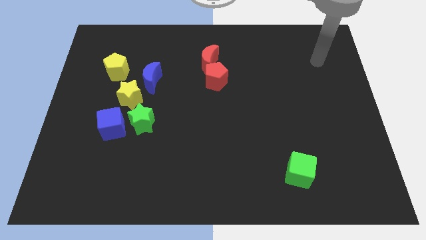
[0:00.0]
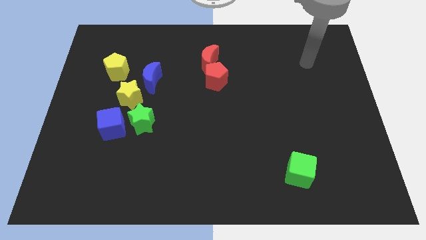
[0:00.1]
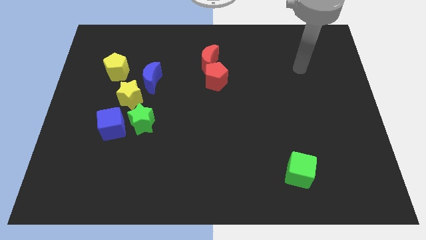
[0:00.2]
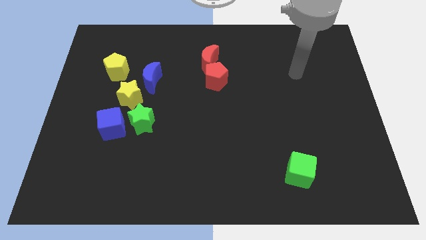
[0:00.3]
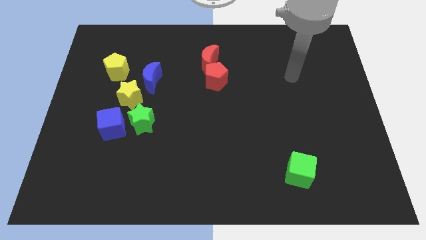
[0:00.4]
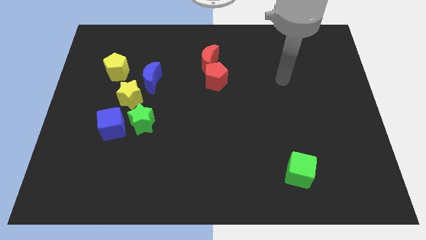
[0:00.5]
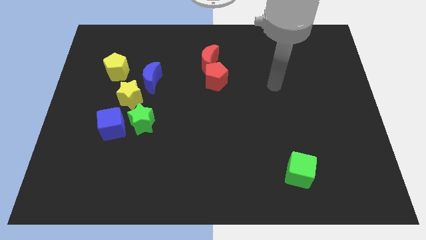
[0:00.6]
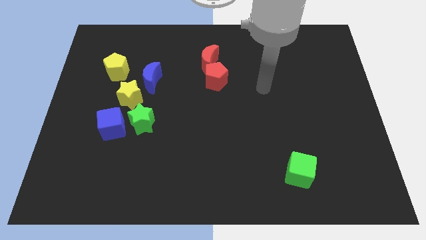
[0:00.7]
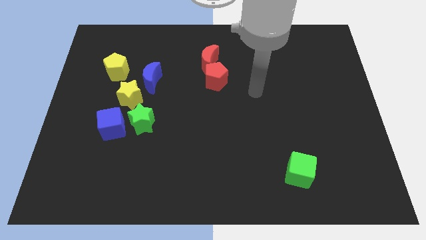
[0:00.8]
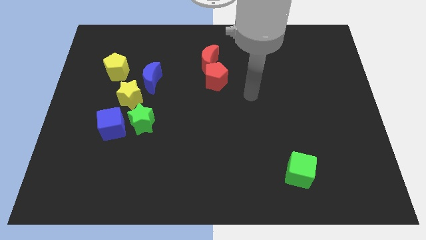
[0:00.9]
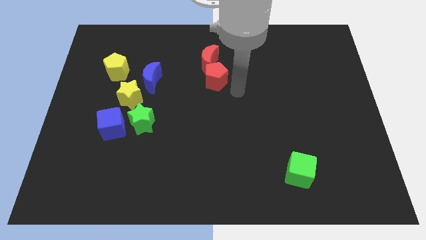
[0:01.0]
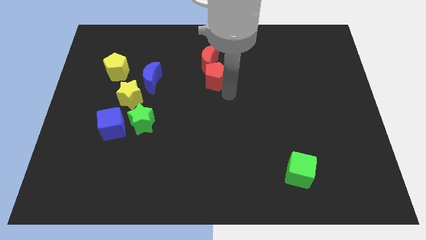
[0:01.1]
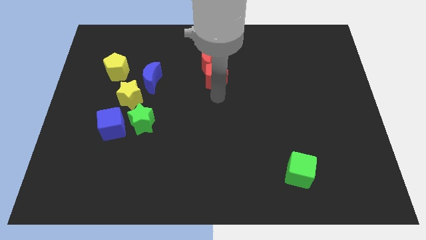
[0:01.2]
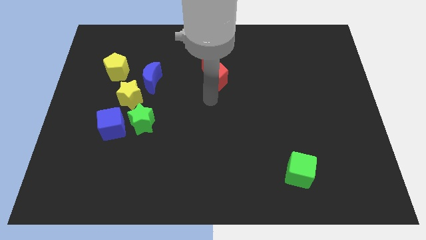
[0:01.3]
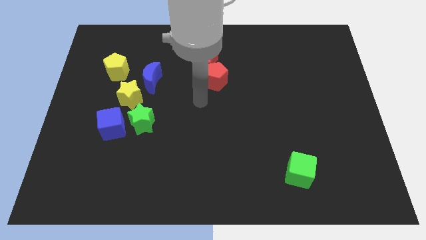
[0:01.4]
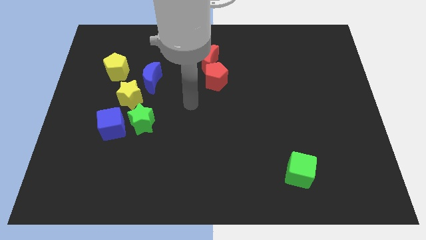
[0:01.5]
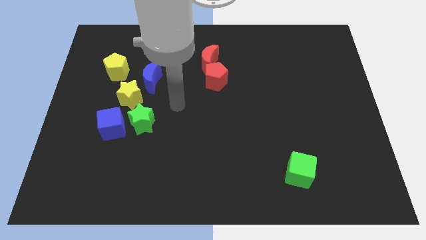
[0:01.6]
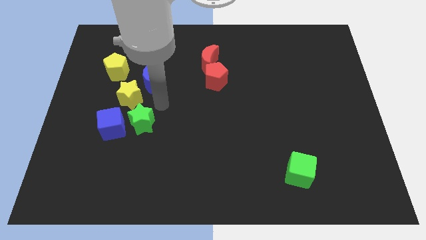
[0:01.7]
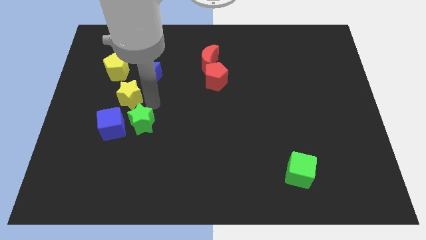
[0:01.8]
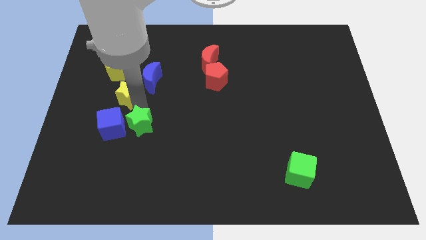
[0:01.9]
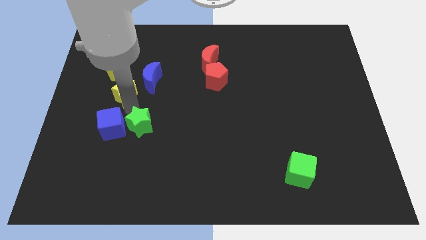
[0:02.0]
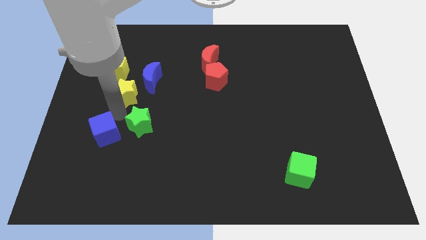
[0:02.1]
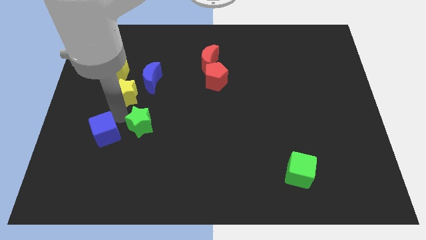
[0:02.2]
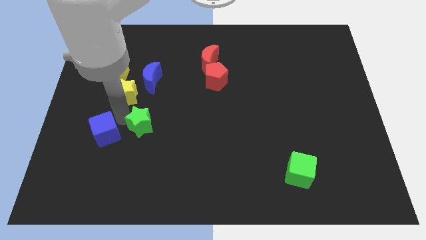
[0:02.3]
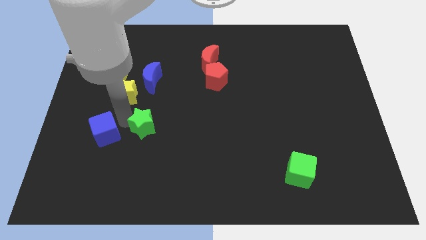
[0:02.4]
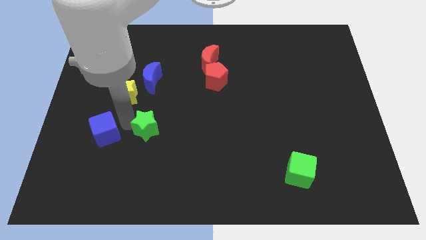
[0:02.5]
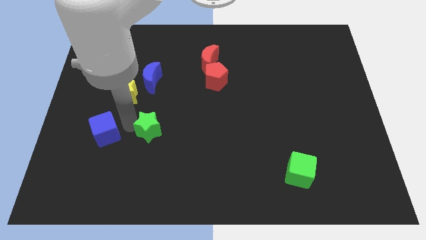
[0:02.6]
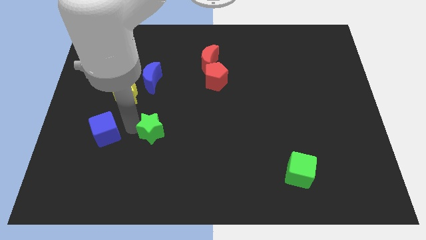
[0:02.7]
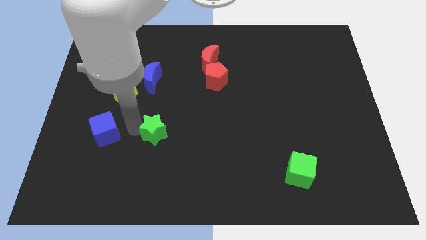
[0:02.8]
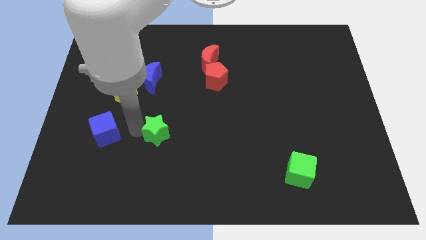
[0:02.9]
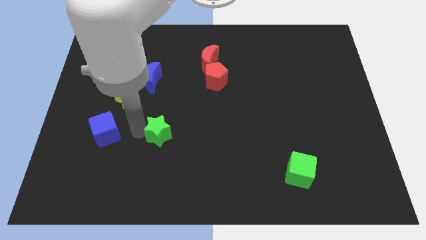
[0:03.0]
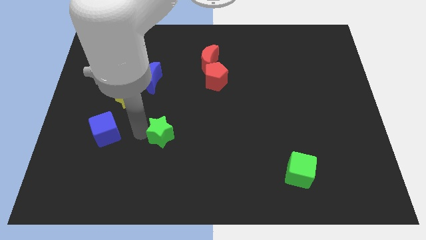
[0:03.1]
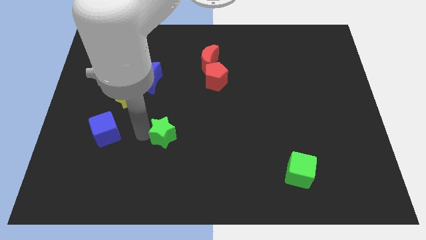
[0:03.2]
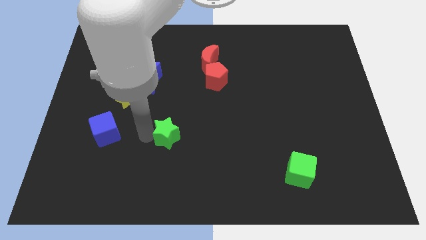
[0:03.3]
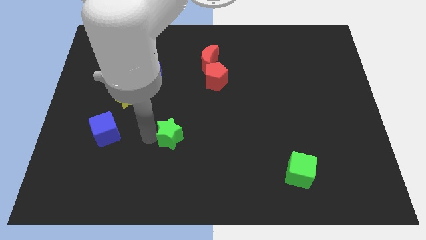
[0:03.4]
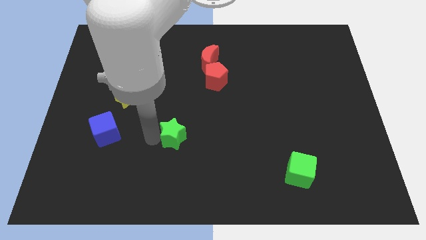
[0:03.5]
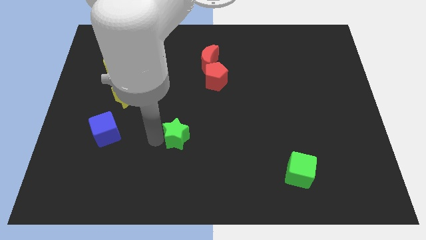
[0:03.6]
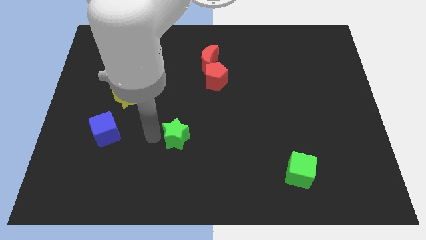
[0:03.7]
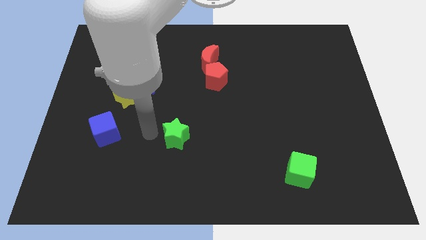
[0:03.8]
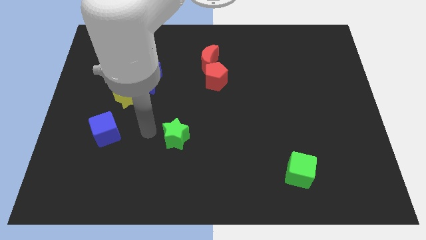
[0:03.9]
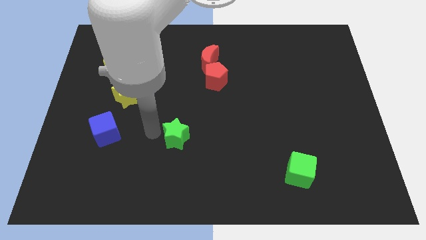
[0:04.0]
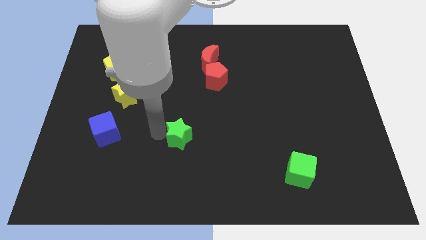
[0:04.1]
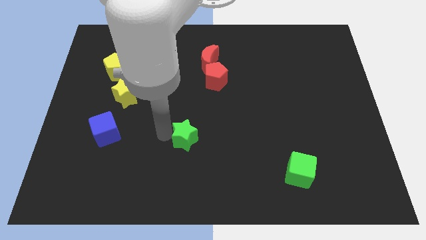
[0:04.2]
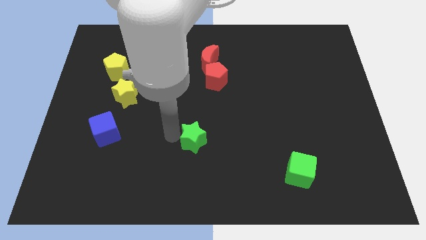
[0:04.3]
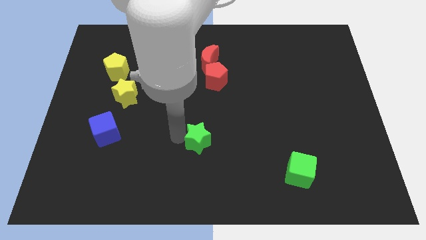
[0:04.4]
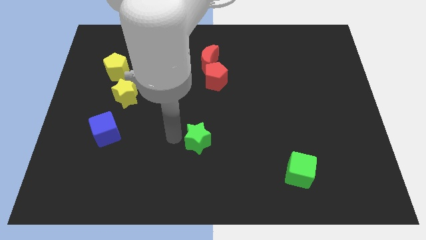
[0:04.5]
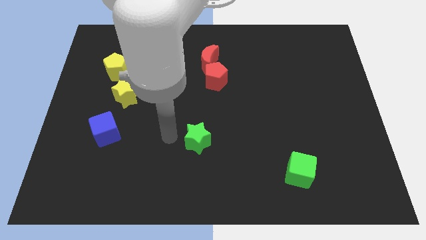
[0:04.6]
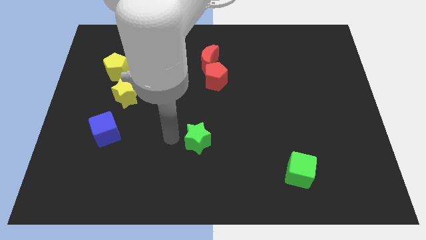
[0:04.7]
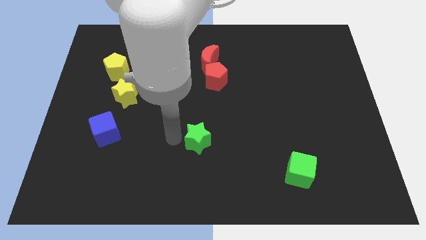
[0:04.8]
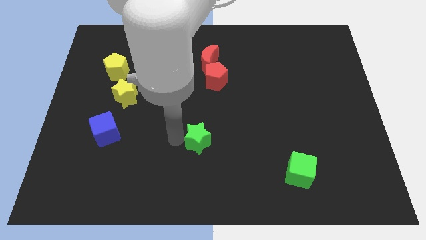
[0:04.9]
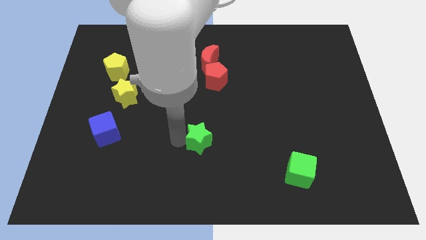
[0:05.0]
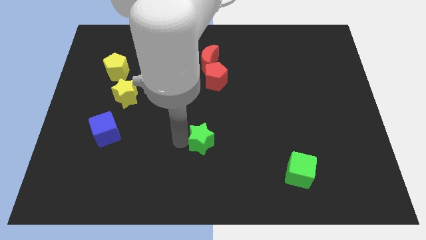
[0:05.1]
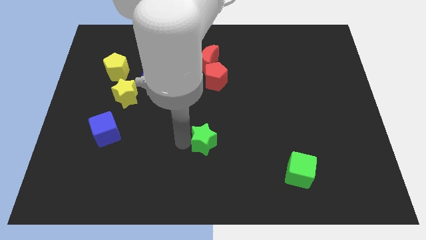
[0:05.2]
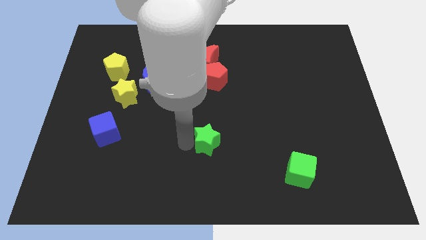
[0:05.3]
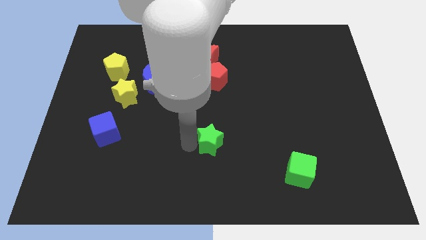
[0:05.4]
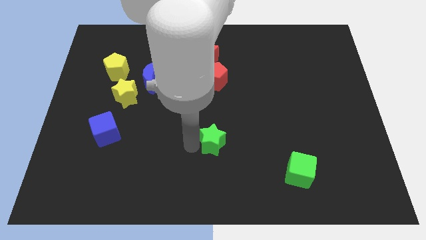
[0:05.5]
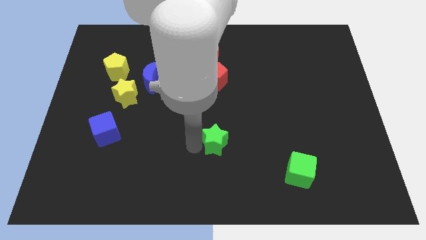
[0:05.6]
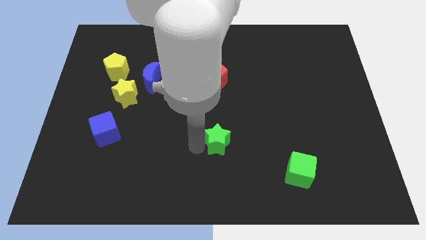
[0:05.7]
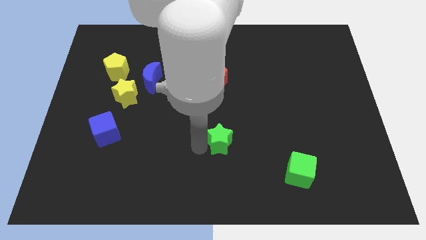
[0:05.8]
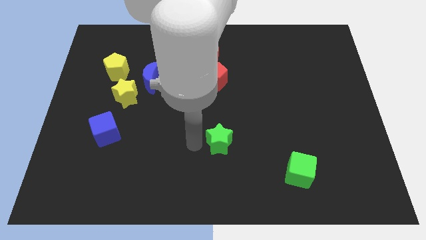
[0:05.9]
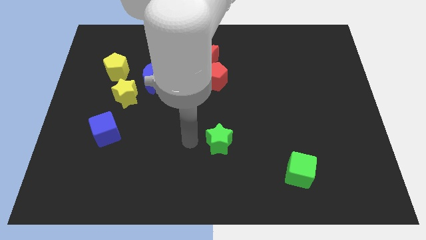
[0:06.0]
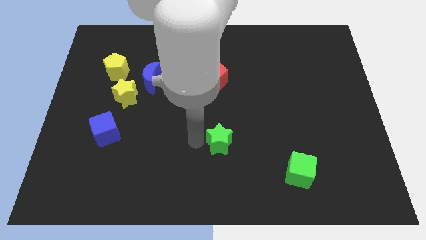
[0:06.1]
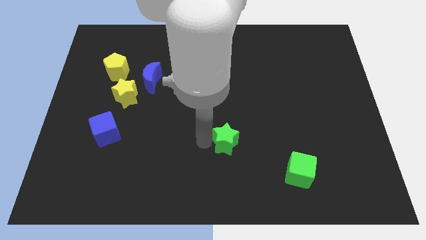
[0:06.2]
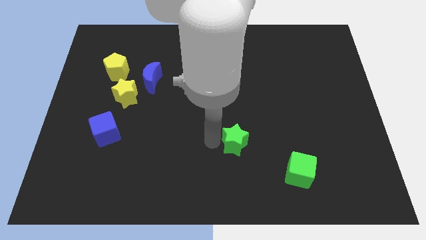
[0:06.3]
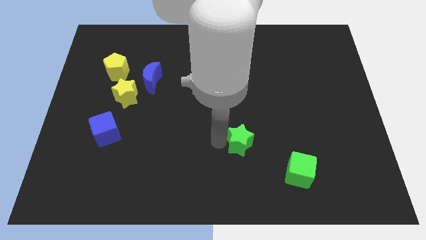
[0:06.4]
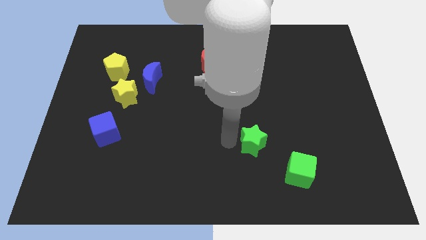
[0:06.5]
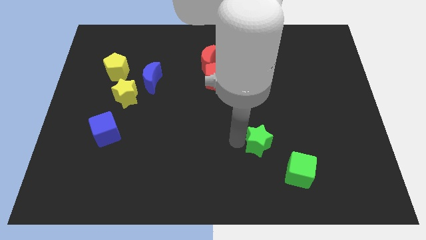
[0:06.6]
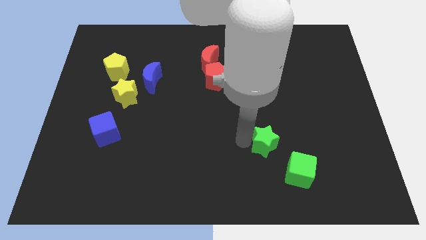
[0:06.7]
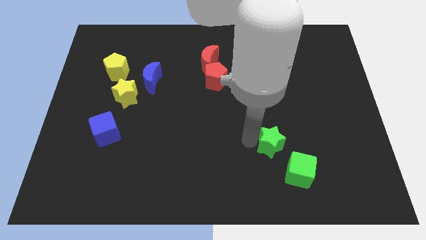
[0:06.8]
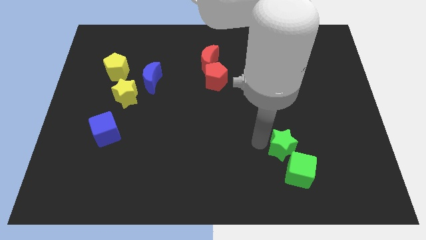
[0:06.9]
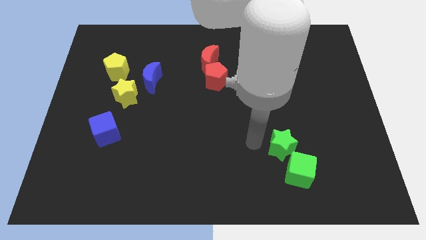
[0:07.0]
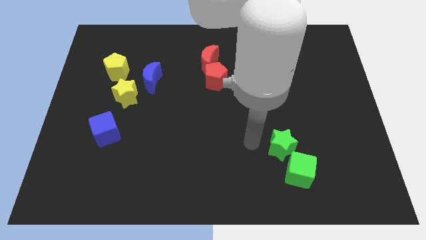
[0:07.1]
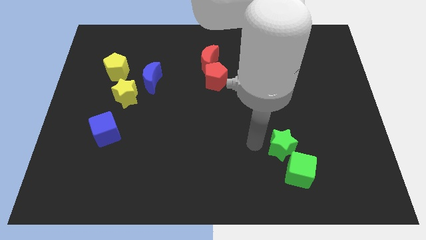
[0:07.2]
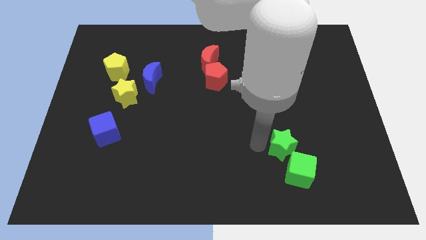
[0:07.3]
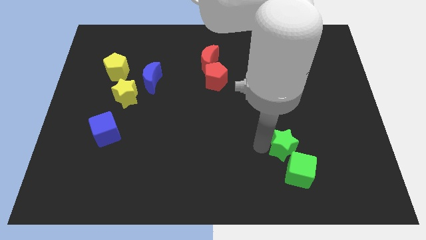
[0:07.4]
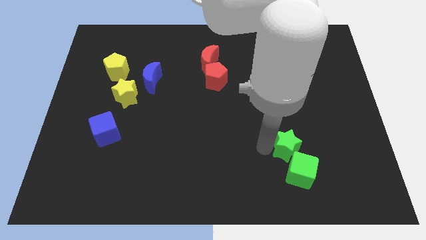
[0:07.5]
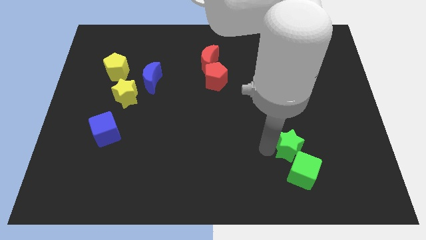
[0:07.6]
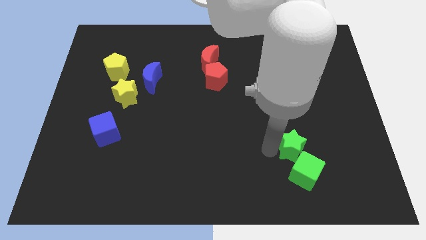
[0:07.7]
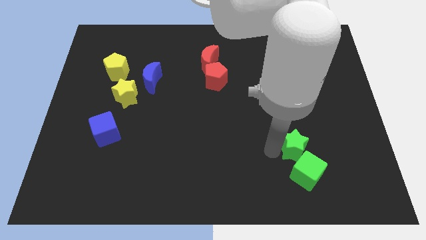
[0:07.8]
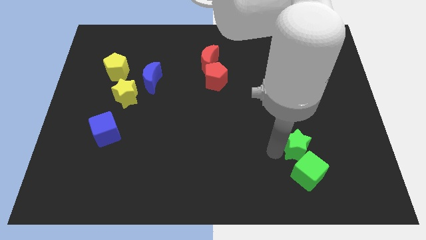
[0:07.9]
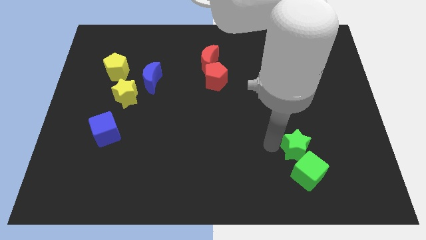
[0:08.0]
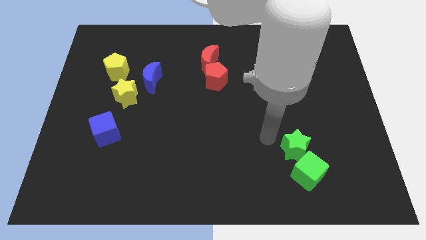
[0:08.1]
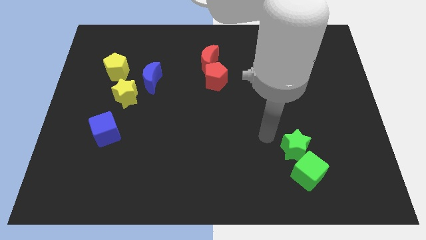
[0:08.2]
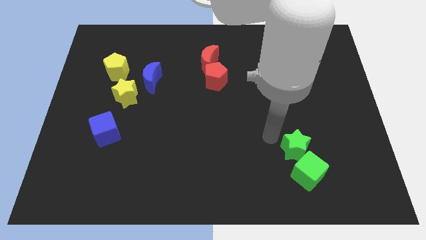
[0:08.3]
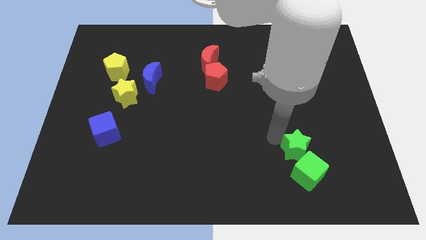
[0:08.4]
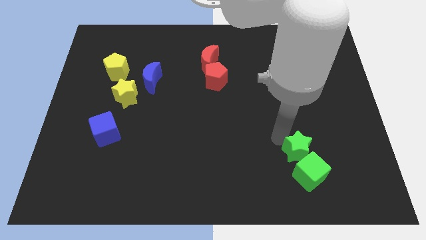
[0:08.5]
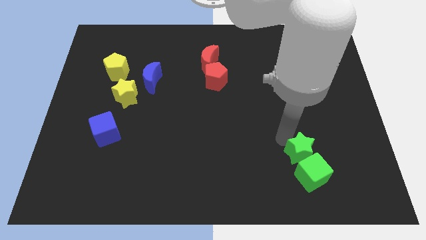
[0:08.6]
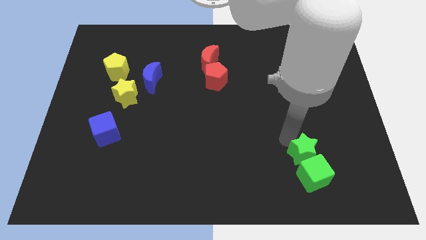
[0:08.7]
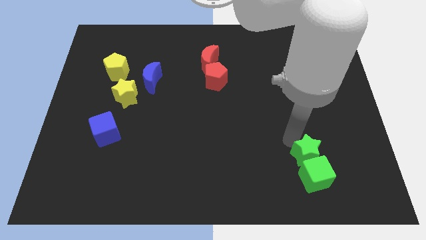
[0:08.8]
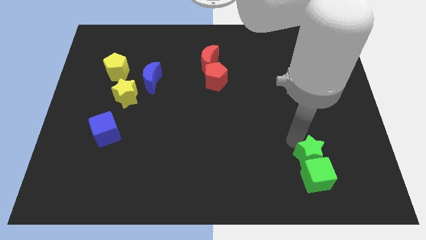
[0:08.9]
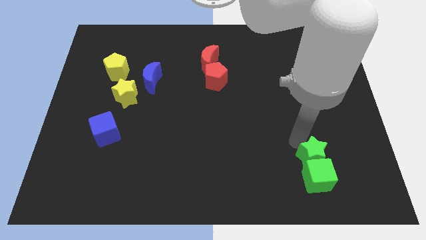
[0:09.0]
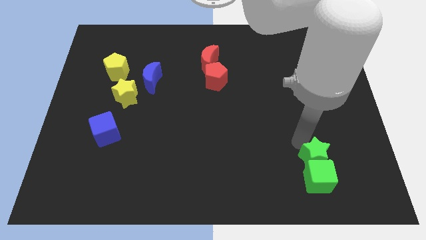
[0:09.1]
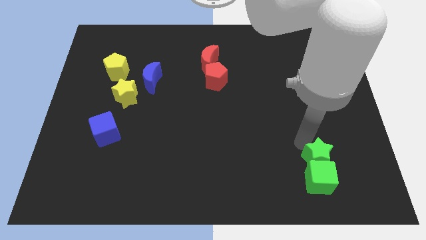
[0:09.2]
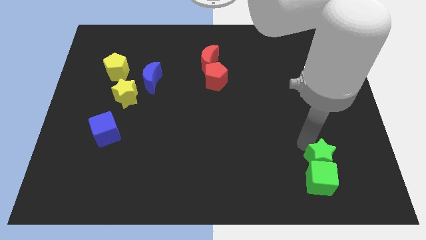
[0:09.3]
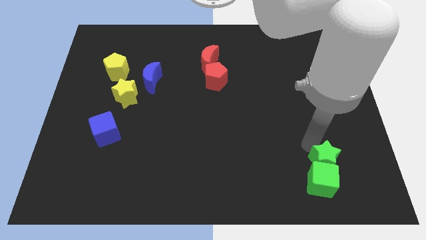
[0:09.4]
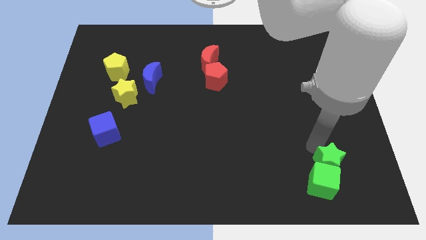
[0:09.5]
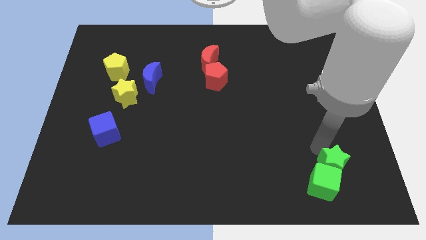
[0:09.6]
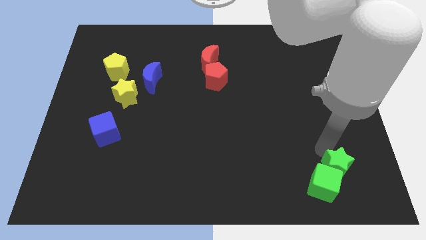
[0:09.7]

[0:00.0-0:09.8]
move the green star to the right of the green cube
